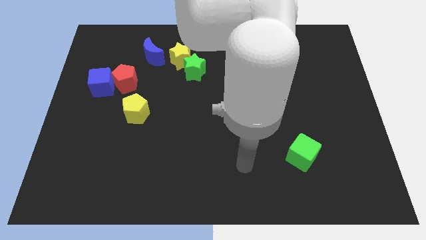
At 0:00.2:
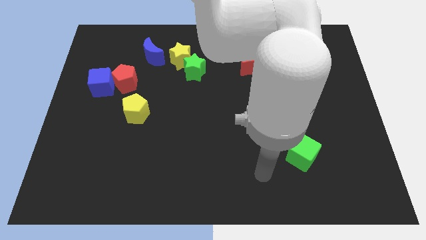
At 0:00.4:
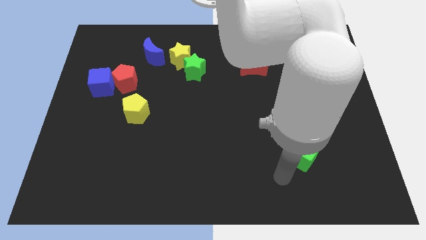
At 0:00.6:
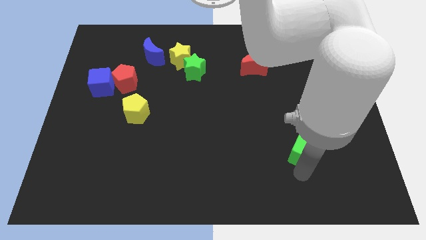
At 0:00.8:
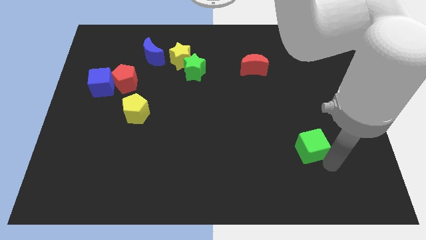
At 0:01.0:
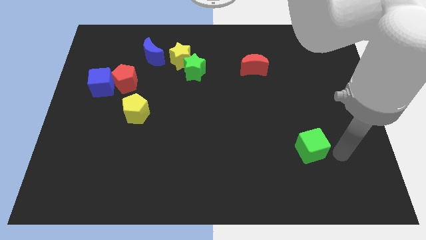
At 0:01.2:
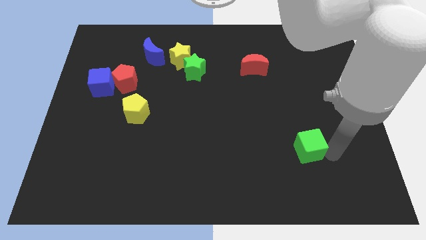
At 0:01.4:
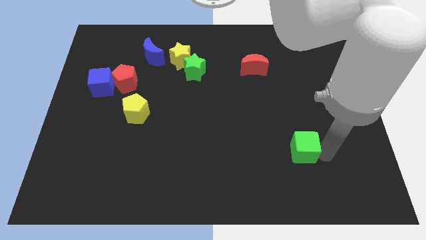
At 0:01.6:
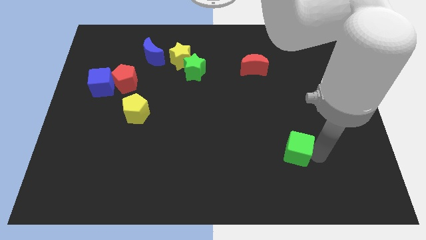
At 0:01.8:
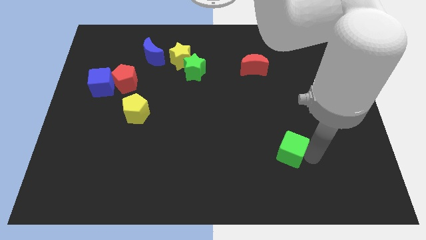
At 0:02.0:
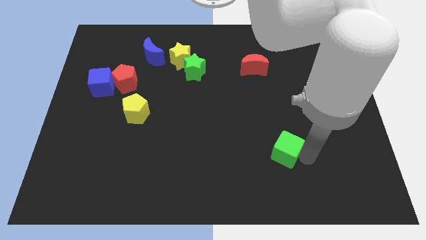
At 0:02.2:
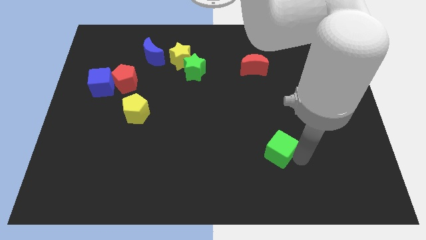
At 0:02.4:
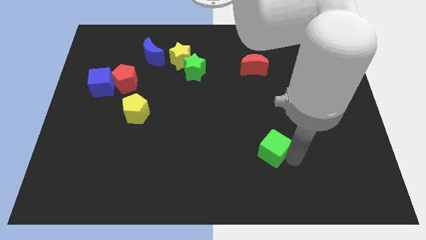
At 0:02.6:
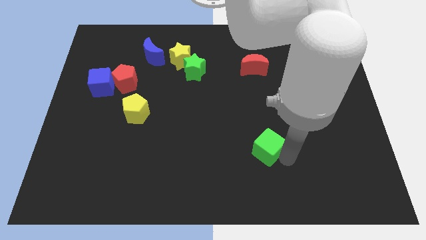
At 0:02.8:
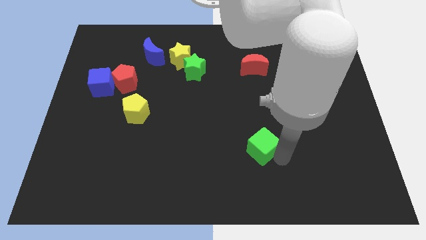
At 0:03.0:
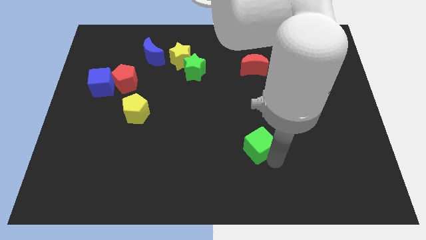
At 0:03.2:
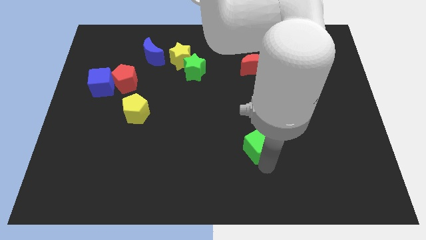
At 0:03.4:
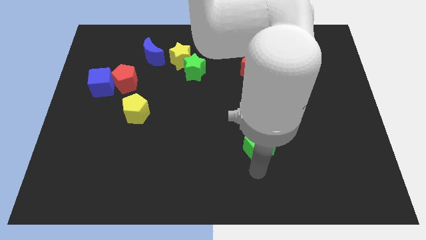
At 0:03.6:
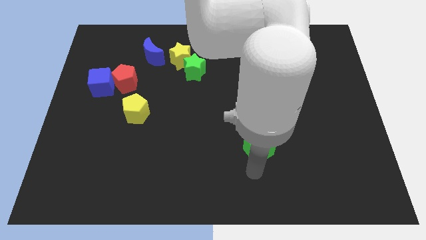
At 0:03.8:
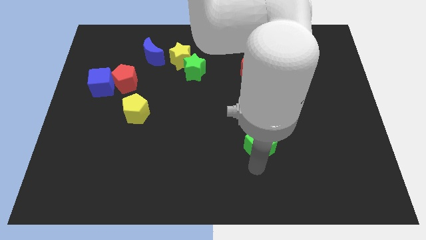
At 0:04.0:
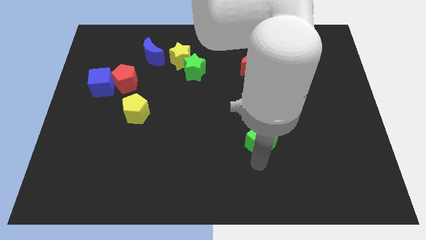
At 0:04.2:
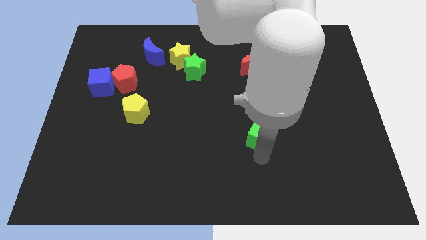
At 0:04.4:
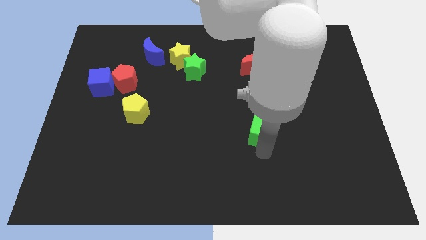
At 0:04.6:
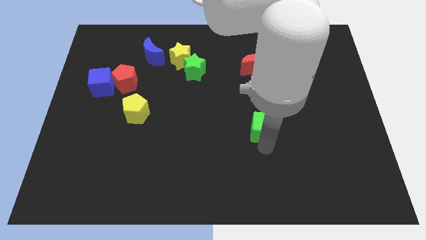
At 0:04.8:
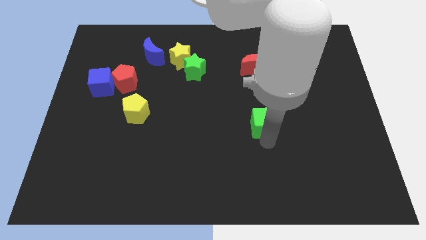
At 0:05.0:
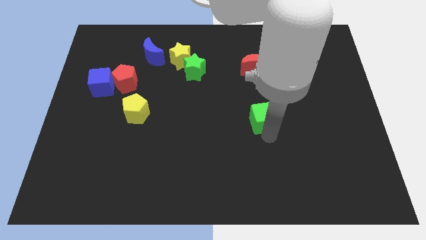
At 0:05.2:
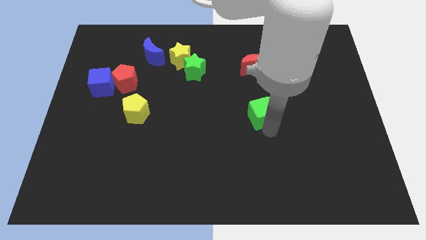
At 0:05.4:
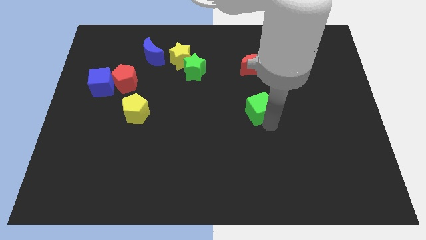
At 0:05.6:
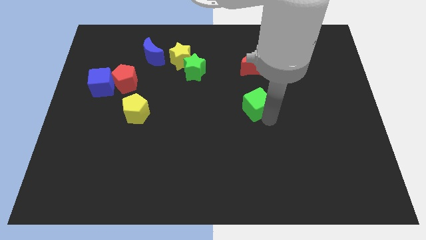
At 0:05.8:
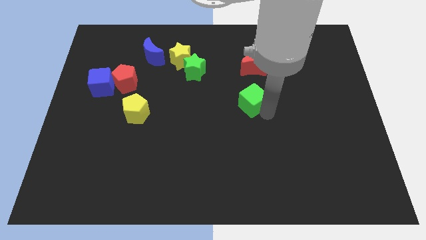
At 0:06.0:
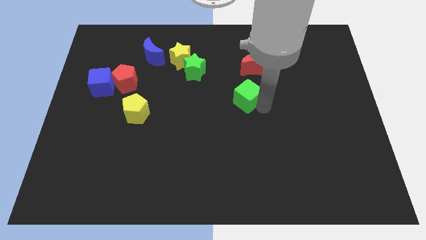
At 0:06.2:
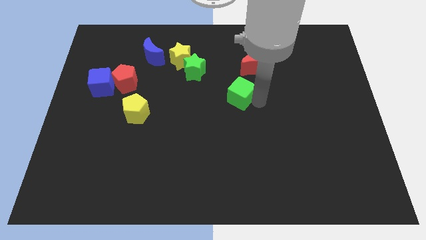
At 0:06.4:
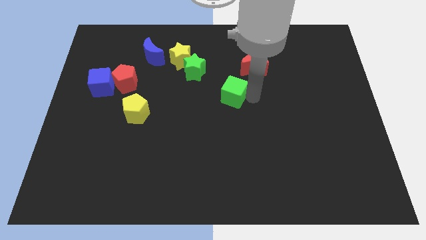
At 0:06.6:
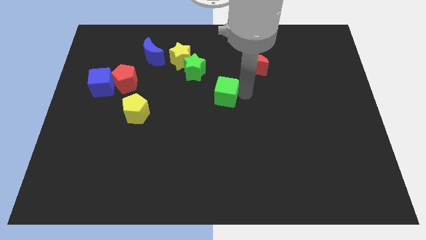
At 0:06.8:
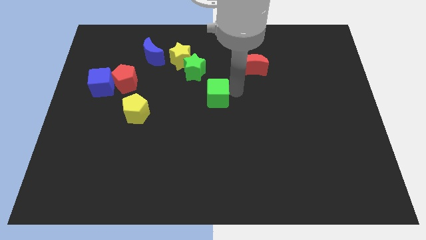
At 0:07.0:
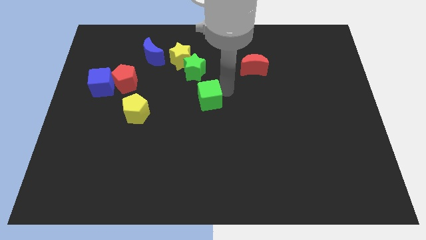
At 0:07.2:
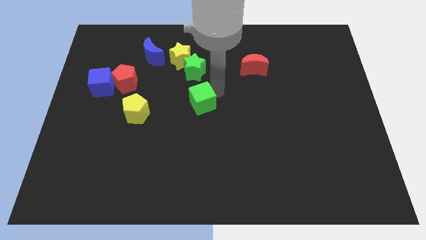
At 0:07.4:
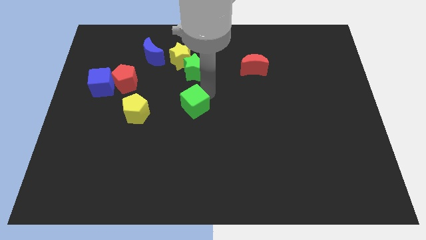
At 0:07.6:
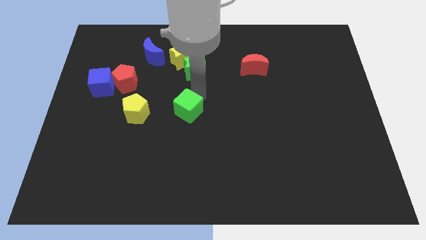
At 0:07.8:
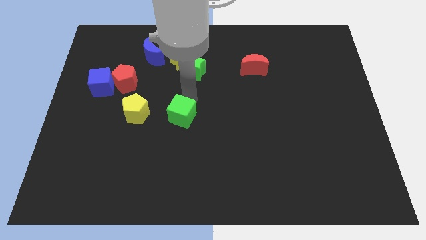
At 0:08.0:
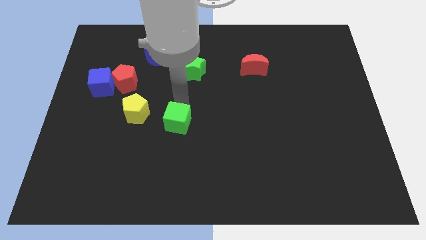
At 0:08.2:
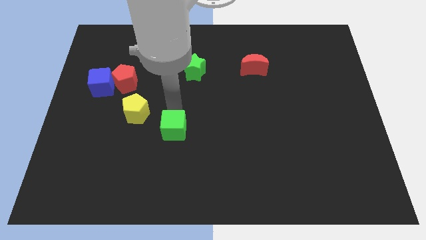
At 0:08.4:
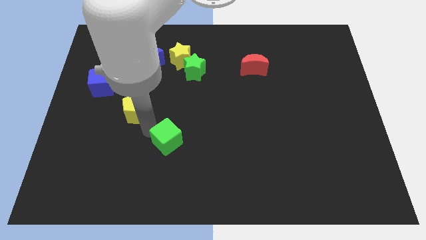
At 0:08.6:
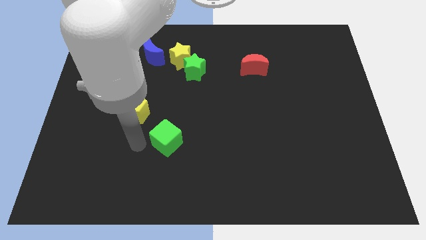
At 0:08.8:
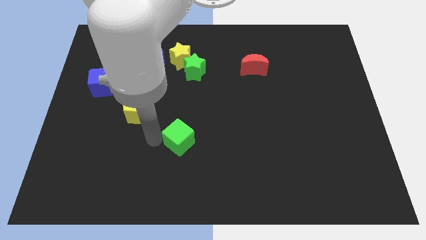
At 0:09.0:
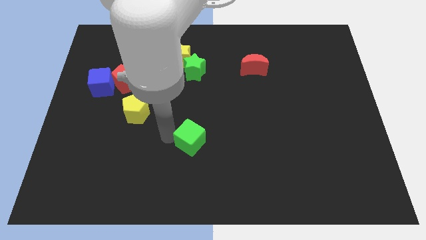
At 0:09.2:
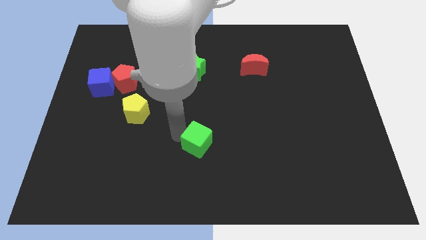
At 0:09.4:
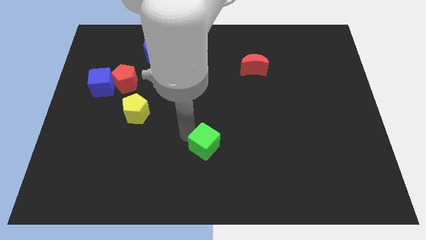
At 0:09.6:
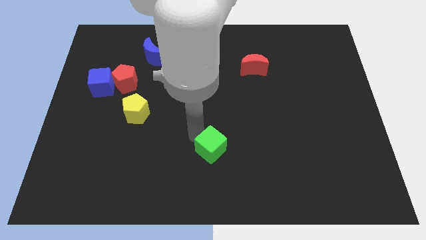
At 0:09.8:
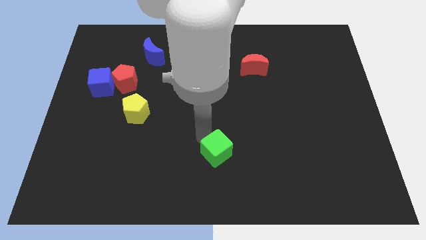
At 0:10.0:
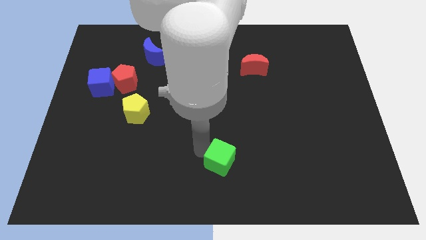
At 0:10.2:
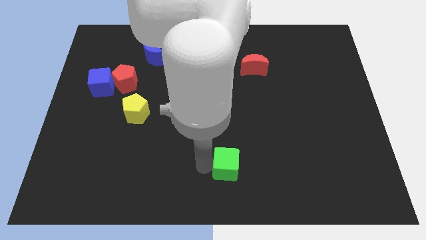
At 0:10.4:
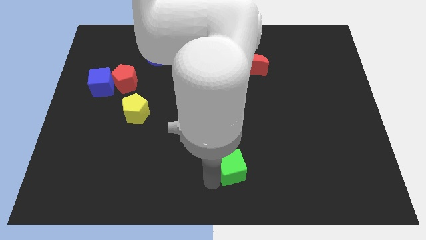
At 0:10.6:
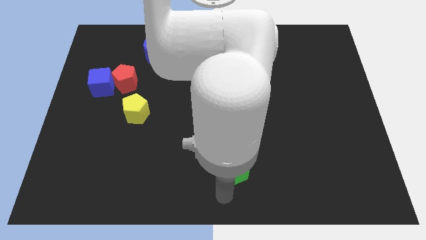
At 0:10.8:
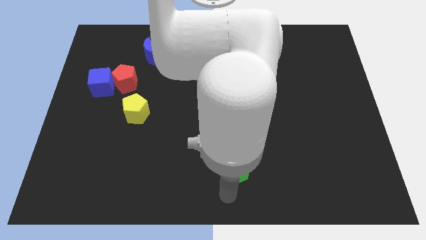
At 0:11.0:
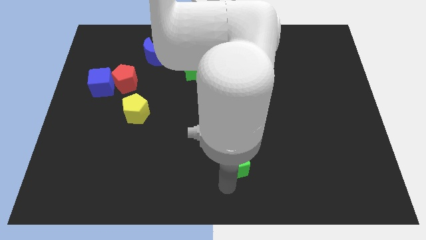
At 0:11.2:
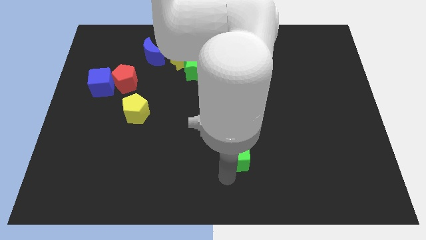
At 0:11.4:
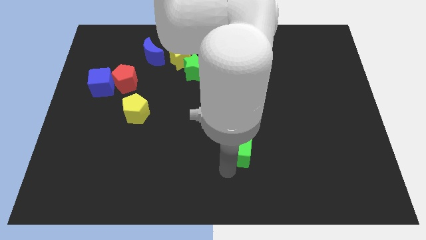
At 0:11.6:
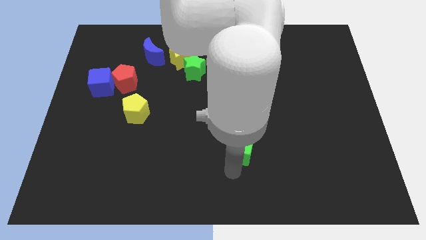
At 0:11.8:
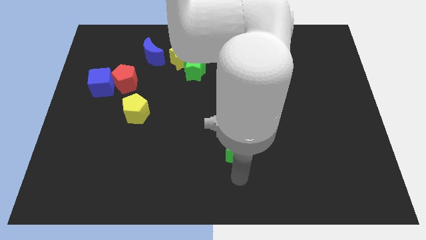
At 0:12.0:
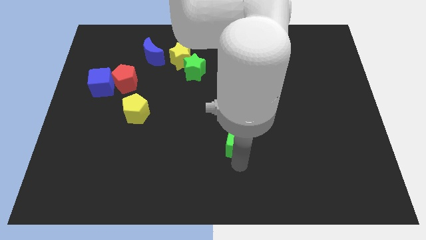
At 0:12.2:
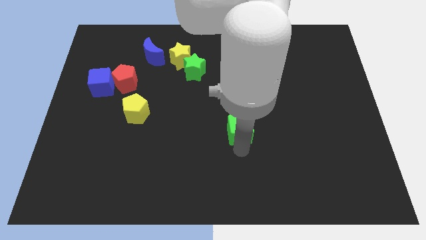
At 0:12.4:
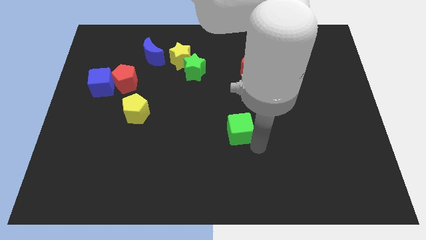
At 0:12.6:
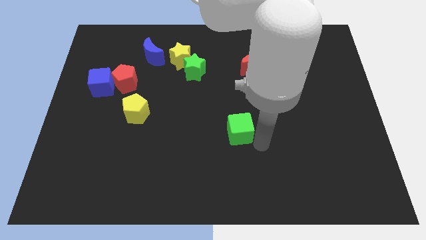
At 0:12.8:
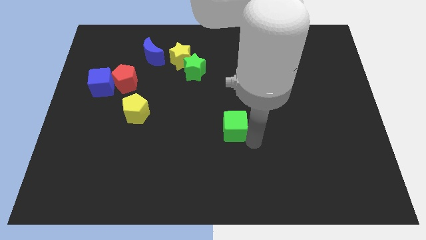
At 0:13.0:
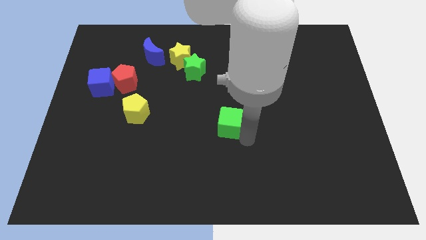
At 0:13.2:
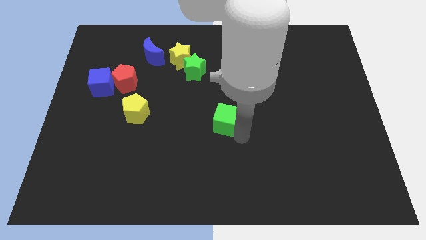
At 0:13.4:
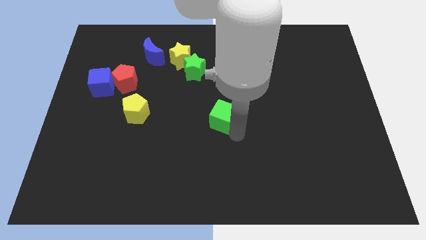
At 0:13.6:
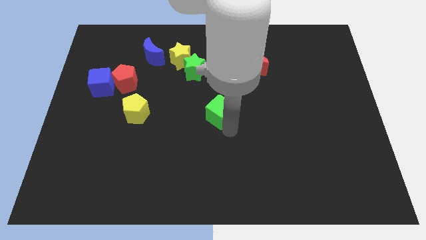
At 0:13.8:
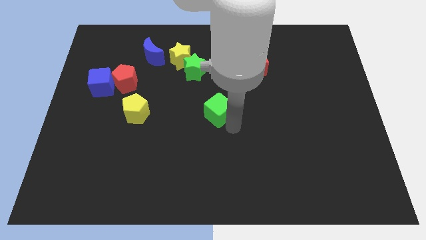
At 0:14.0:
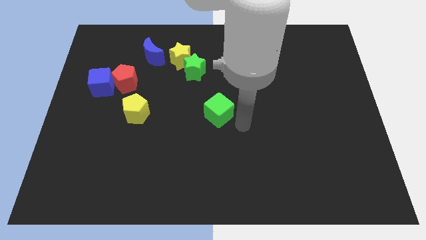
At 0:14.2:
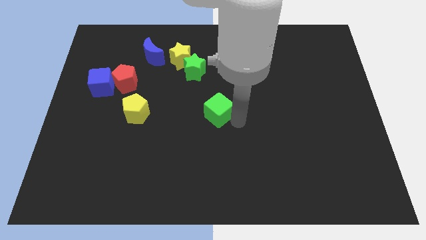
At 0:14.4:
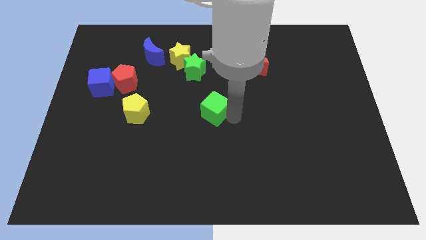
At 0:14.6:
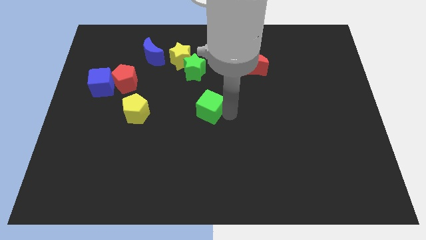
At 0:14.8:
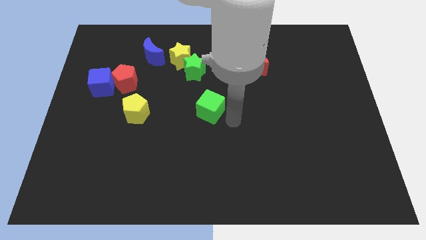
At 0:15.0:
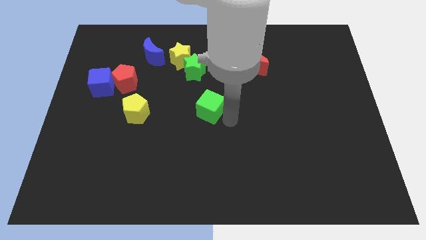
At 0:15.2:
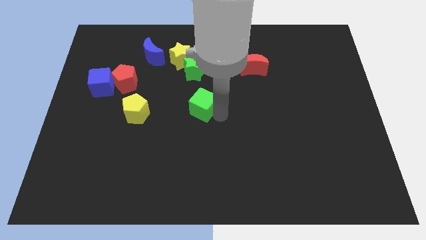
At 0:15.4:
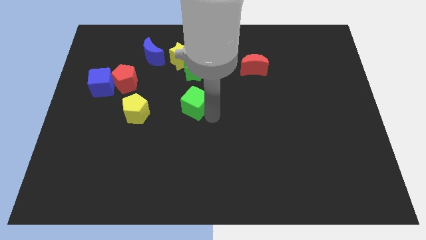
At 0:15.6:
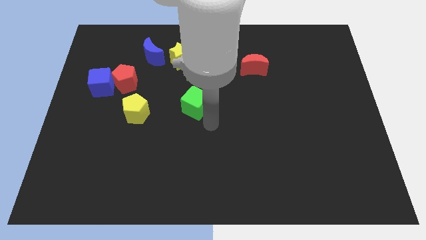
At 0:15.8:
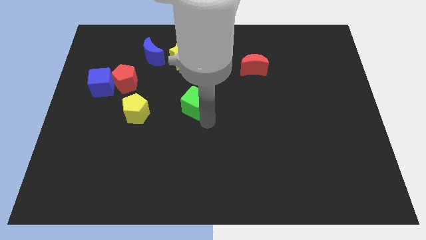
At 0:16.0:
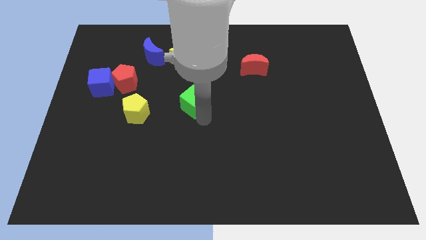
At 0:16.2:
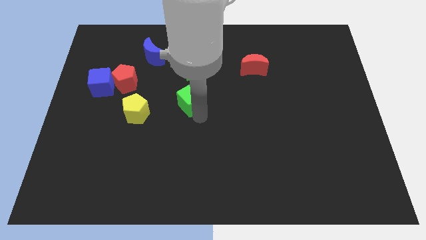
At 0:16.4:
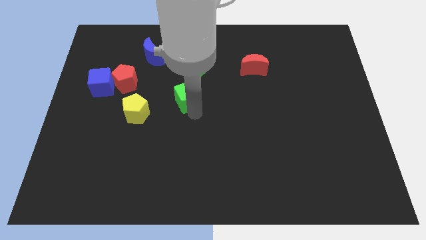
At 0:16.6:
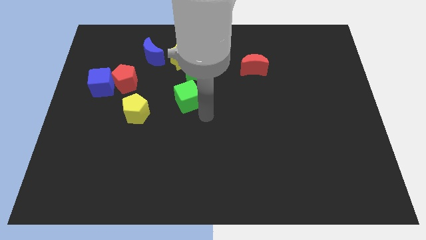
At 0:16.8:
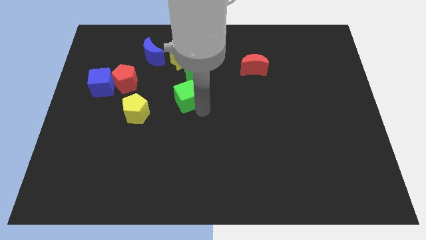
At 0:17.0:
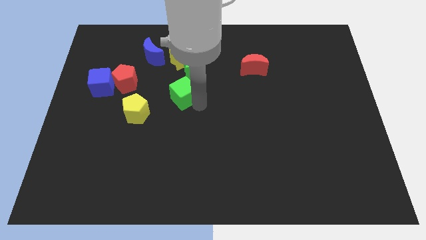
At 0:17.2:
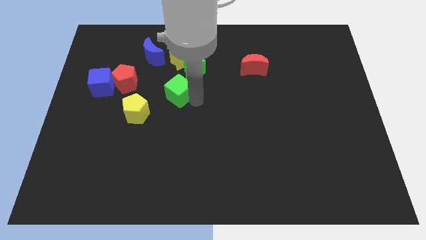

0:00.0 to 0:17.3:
put the green cube to the right of the red pentagon
